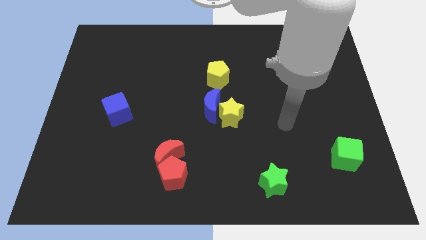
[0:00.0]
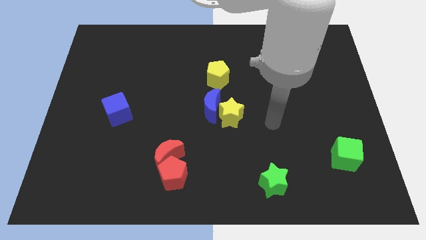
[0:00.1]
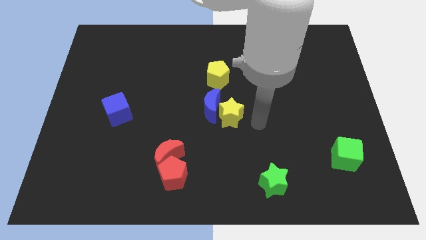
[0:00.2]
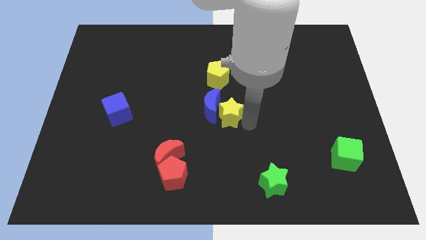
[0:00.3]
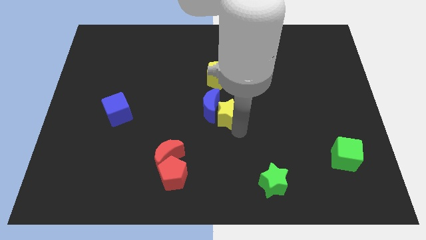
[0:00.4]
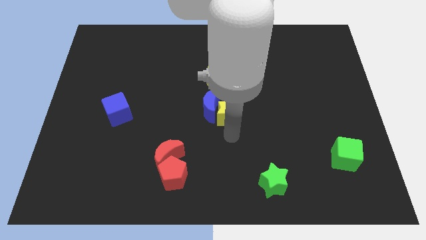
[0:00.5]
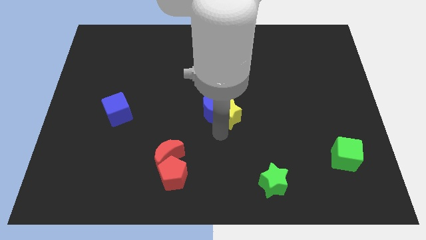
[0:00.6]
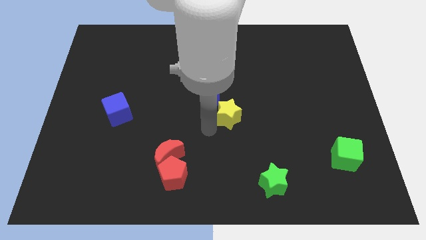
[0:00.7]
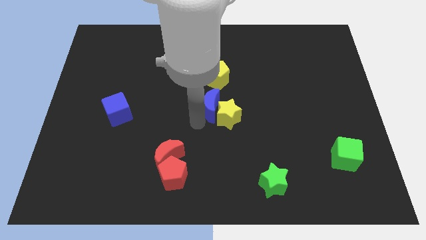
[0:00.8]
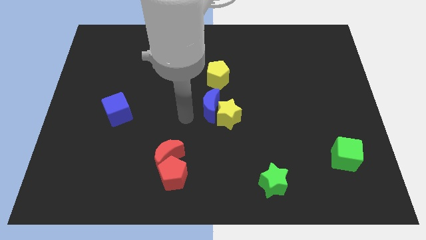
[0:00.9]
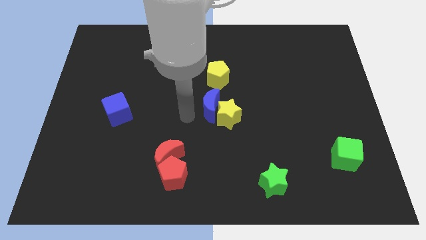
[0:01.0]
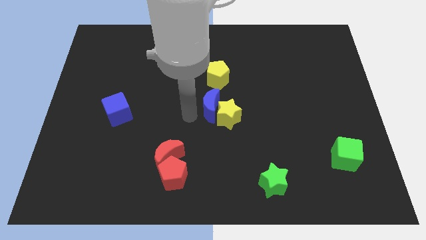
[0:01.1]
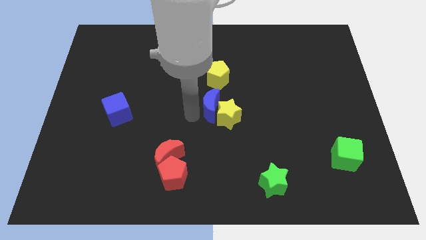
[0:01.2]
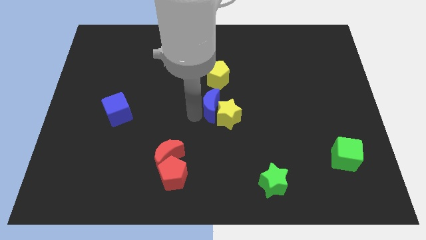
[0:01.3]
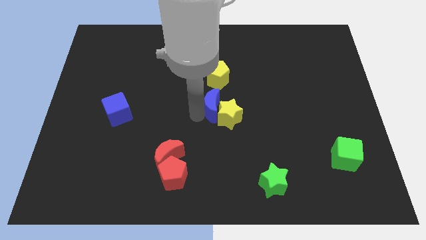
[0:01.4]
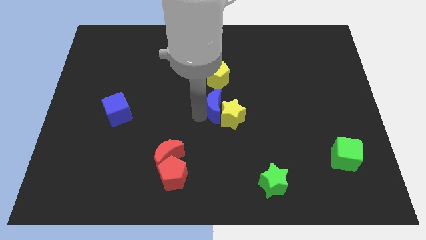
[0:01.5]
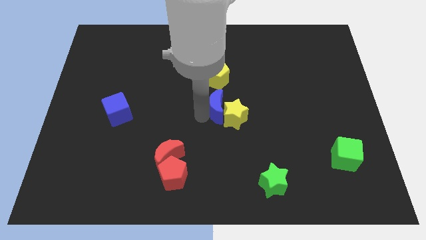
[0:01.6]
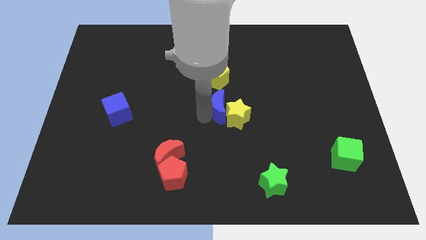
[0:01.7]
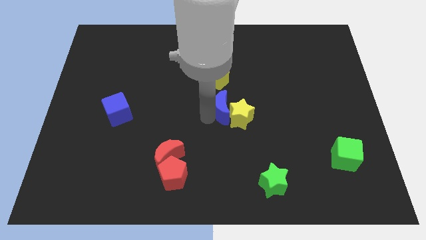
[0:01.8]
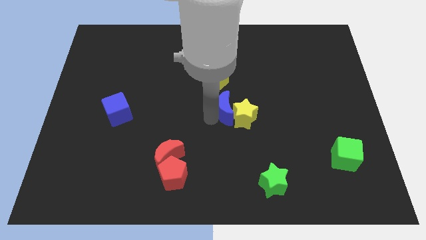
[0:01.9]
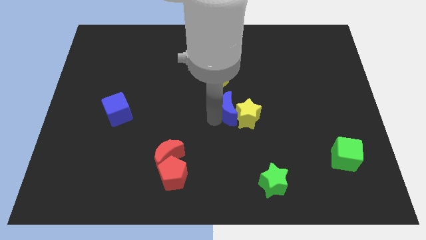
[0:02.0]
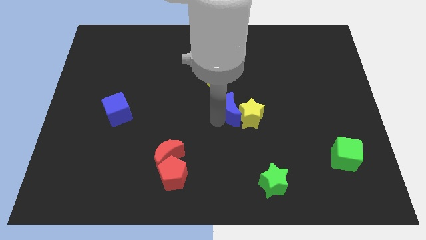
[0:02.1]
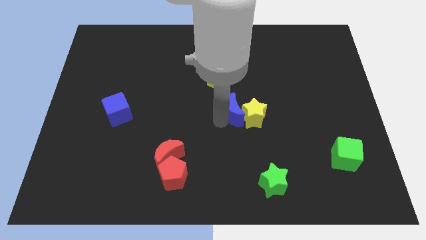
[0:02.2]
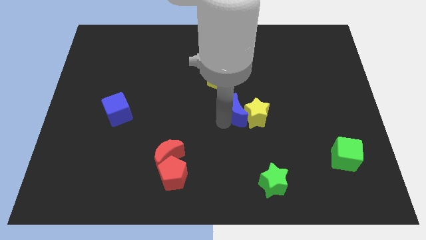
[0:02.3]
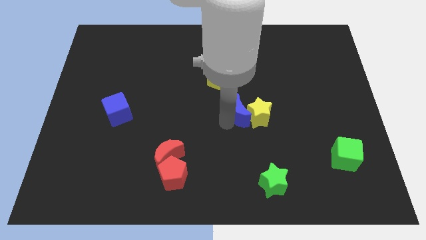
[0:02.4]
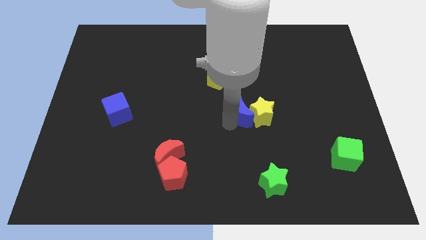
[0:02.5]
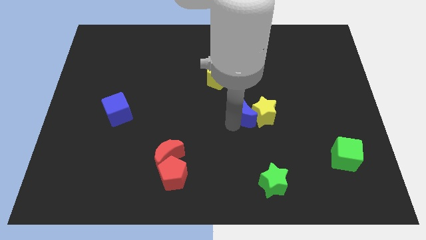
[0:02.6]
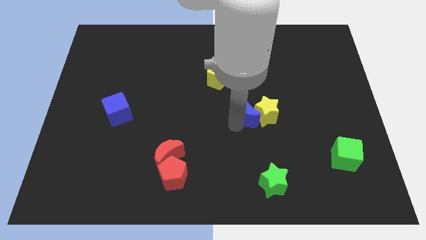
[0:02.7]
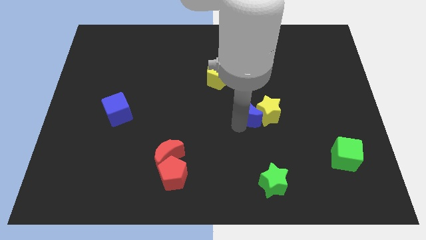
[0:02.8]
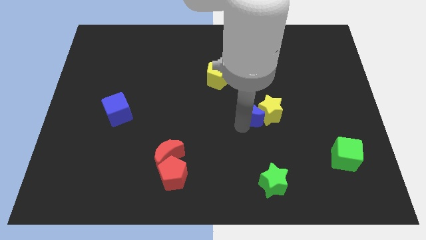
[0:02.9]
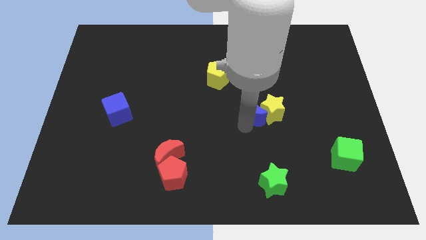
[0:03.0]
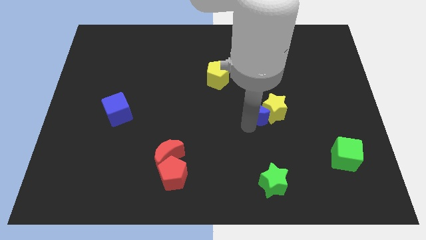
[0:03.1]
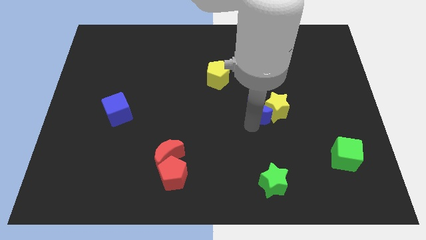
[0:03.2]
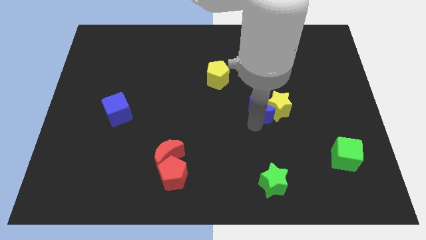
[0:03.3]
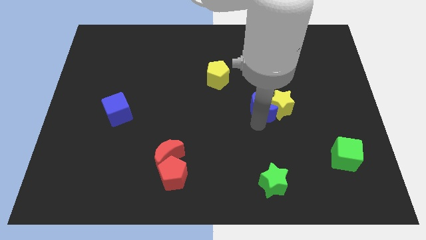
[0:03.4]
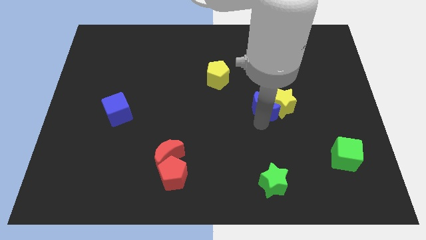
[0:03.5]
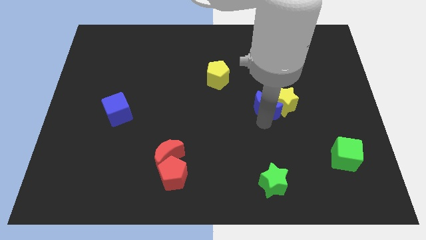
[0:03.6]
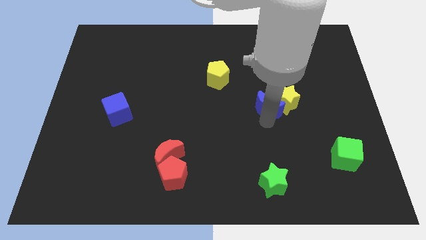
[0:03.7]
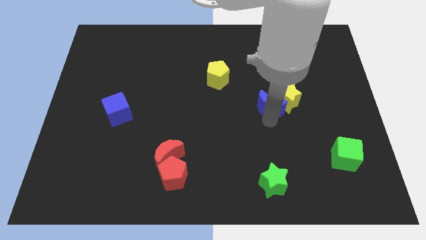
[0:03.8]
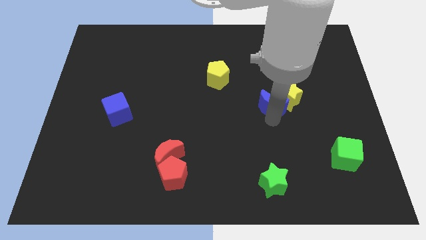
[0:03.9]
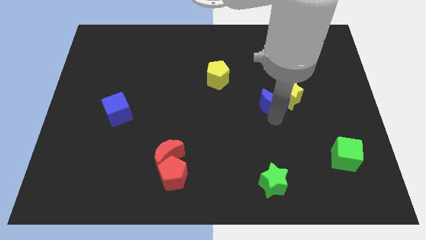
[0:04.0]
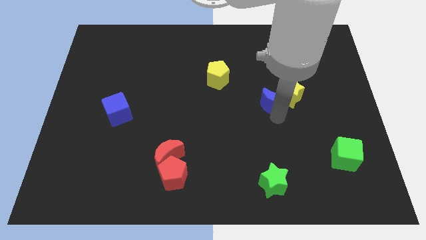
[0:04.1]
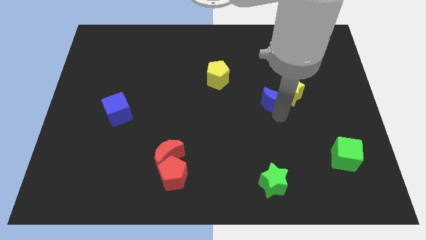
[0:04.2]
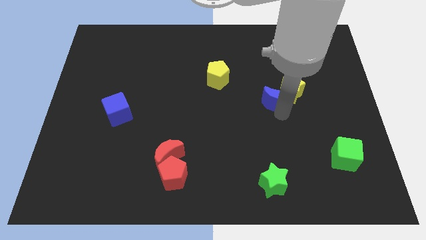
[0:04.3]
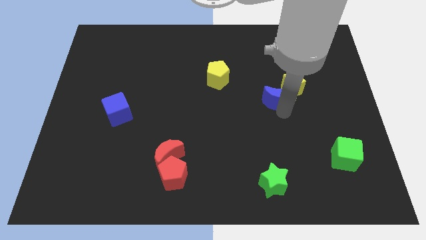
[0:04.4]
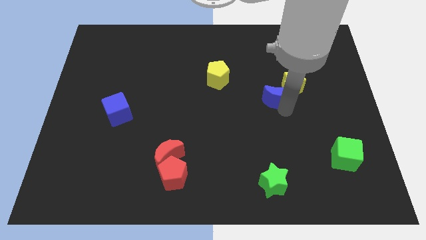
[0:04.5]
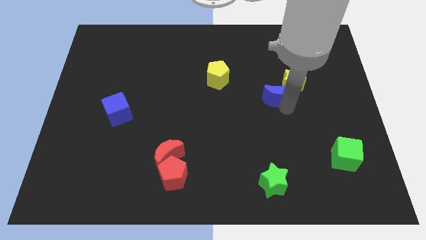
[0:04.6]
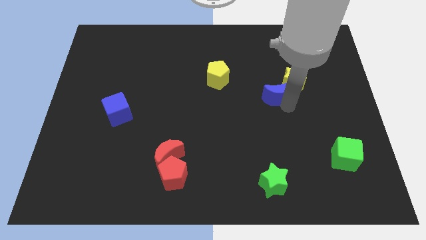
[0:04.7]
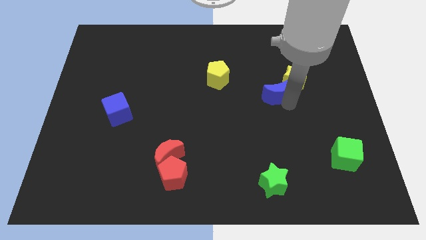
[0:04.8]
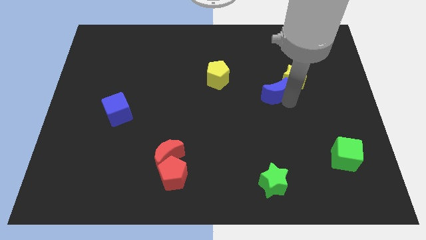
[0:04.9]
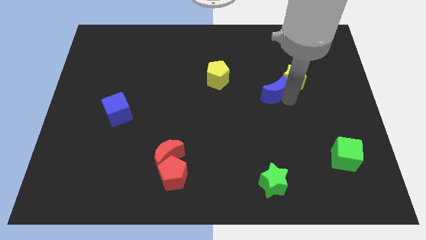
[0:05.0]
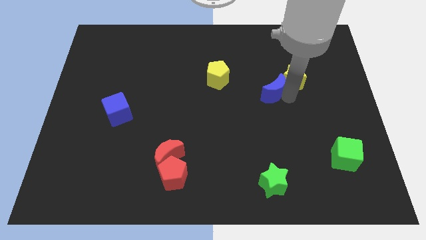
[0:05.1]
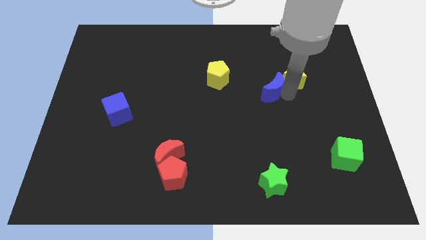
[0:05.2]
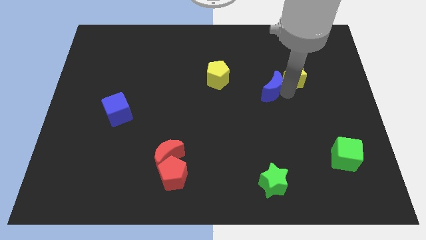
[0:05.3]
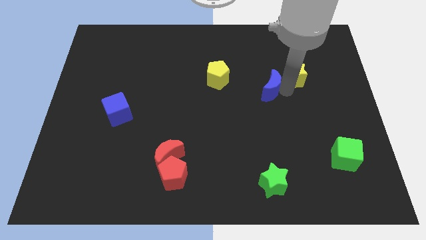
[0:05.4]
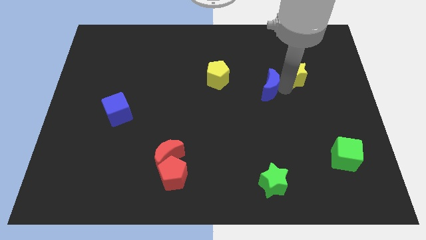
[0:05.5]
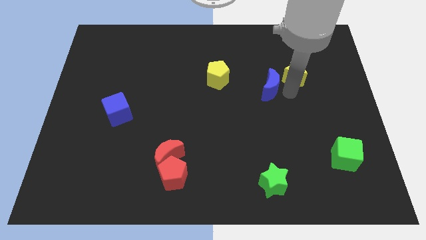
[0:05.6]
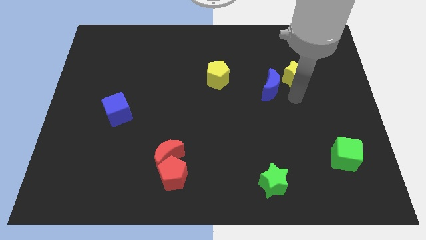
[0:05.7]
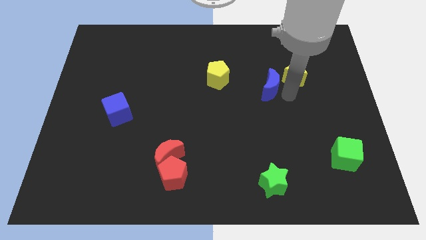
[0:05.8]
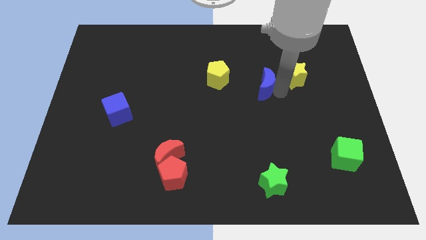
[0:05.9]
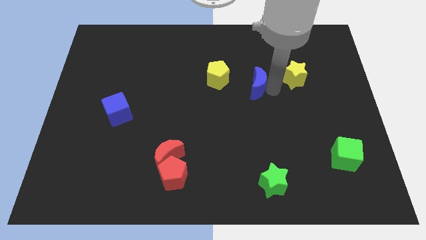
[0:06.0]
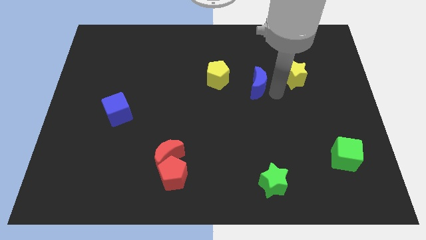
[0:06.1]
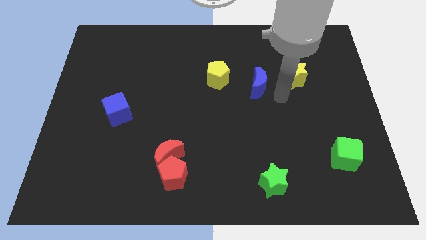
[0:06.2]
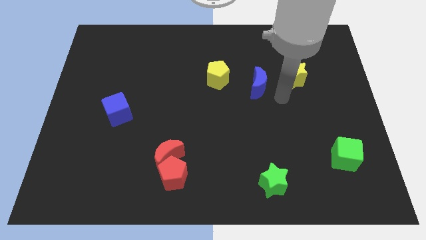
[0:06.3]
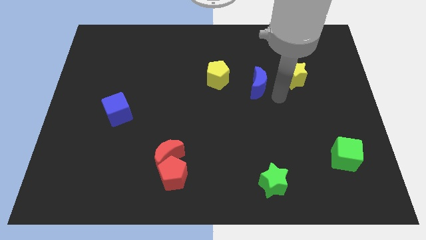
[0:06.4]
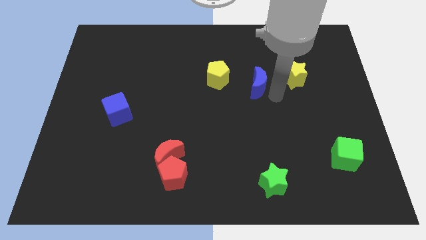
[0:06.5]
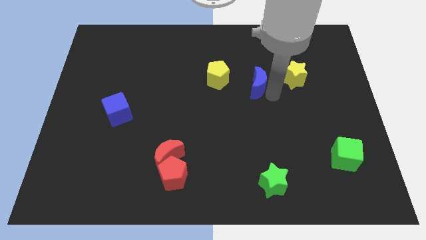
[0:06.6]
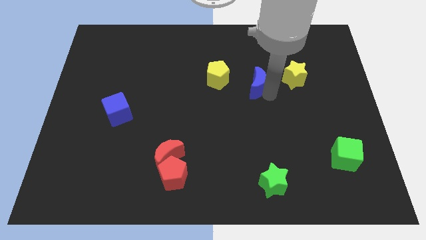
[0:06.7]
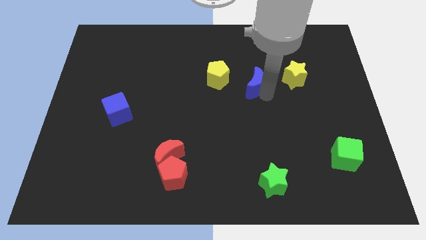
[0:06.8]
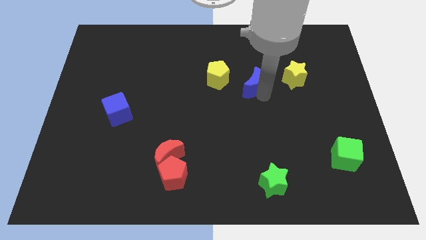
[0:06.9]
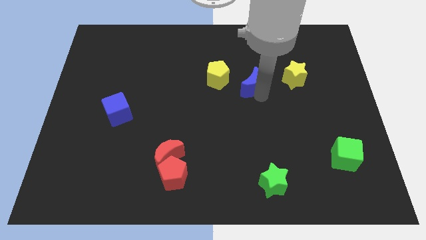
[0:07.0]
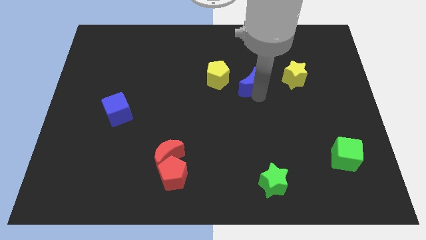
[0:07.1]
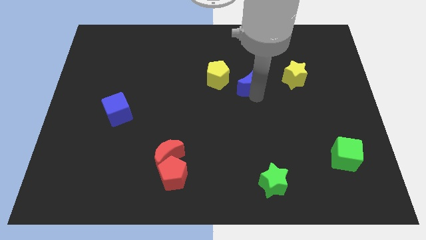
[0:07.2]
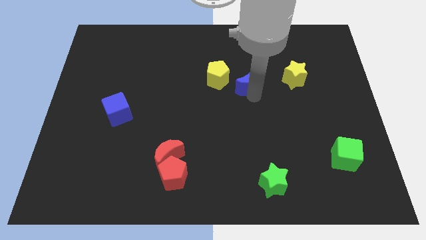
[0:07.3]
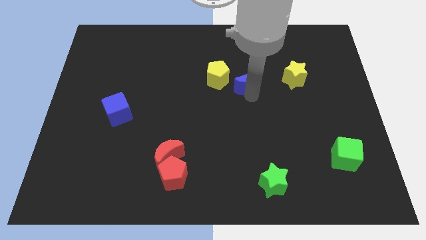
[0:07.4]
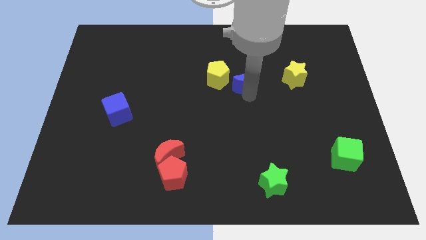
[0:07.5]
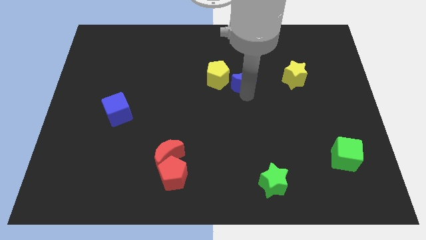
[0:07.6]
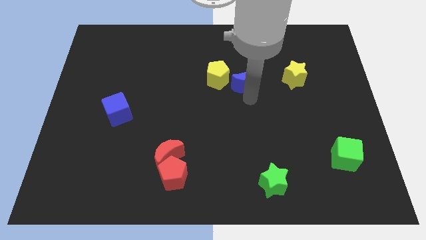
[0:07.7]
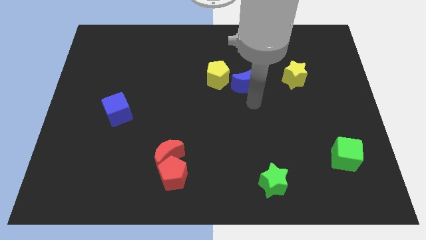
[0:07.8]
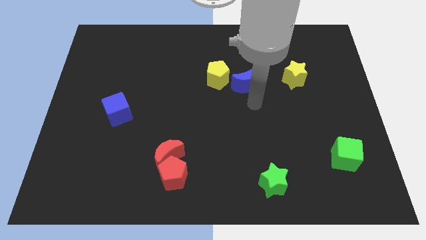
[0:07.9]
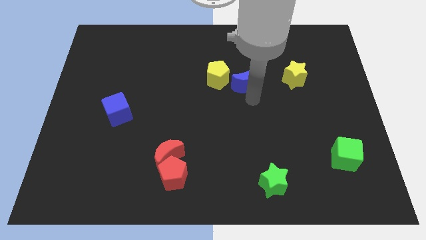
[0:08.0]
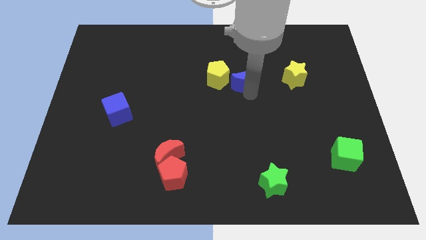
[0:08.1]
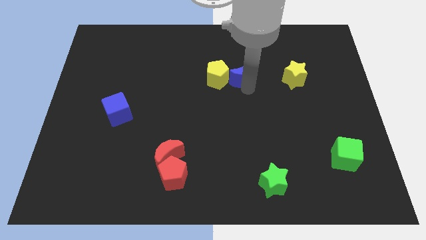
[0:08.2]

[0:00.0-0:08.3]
move the blue moon diagonally up and to the right of the yellow pentagon
